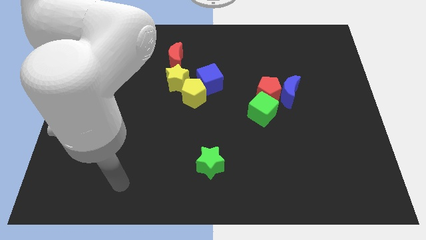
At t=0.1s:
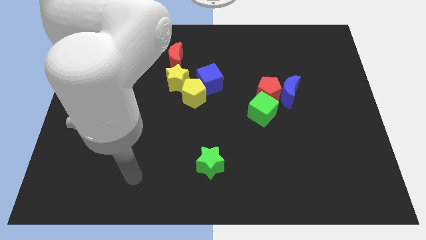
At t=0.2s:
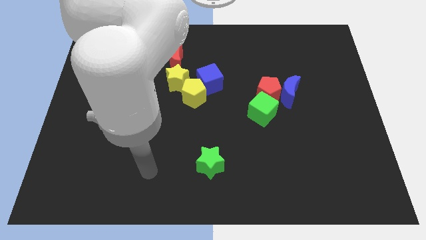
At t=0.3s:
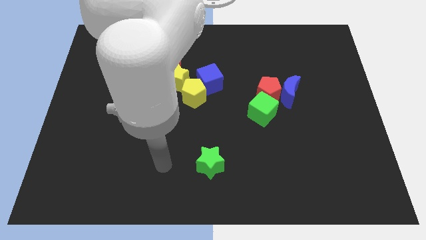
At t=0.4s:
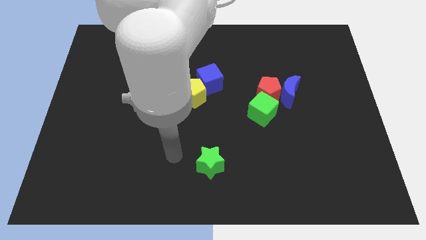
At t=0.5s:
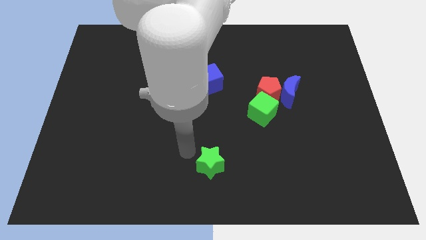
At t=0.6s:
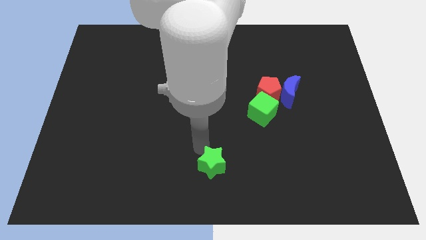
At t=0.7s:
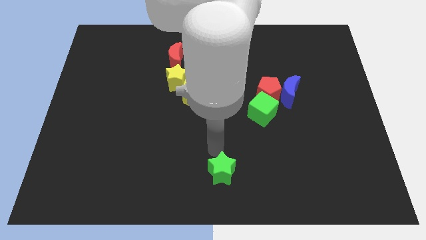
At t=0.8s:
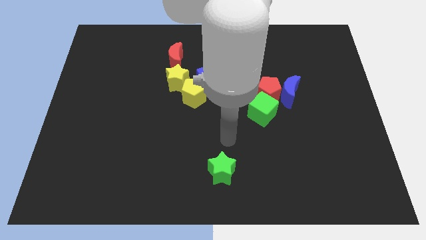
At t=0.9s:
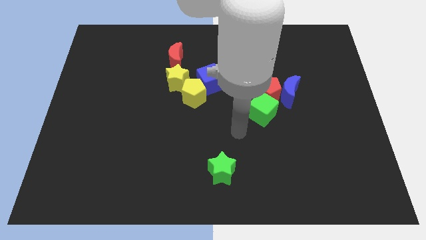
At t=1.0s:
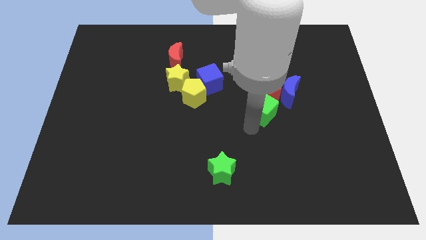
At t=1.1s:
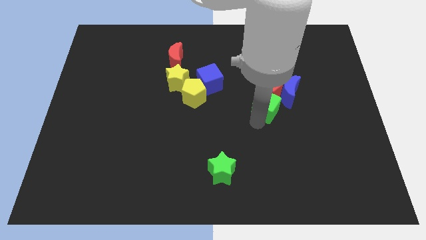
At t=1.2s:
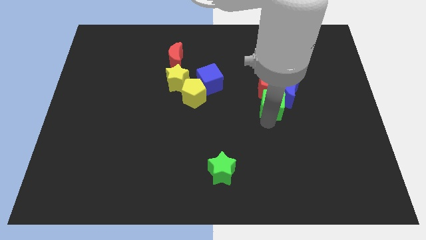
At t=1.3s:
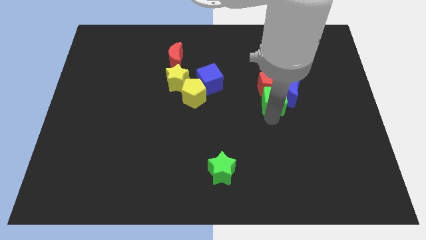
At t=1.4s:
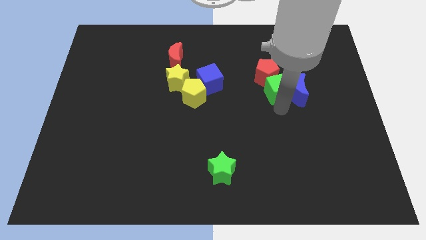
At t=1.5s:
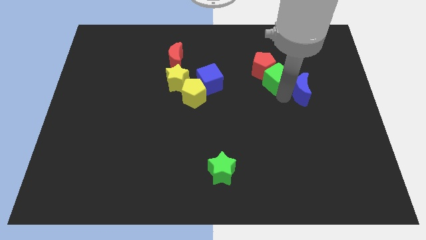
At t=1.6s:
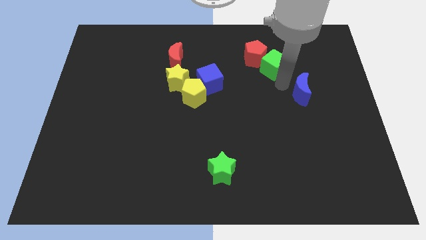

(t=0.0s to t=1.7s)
pull the red pentagon apart from the blue moon and green cube

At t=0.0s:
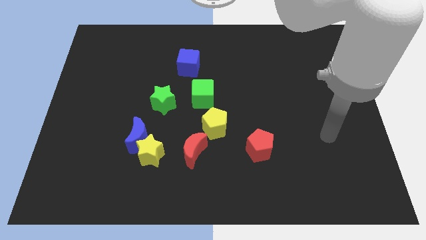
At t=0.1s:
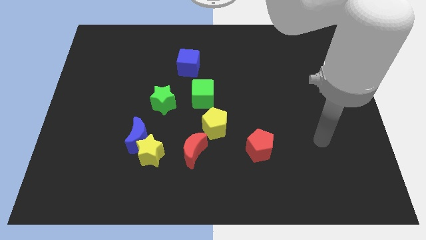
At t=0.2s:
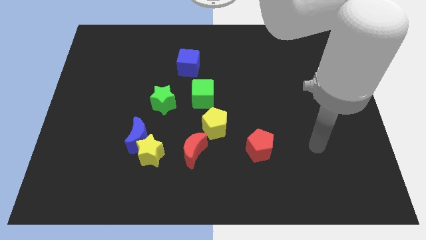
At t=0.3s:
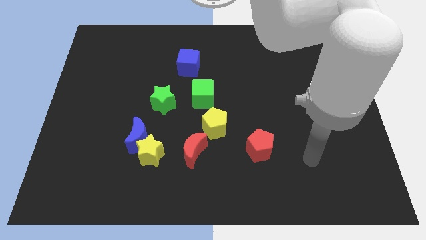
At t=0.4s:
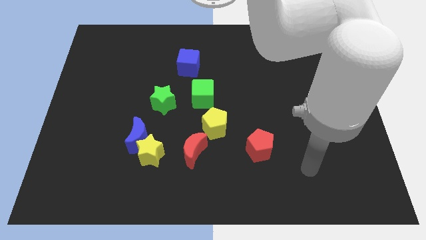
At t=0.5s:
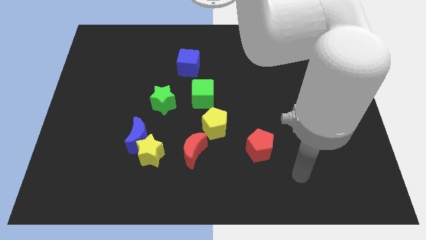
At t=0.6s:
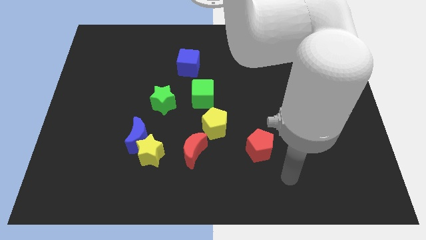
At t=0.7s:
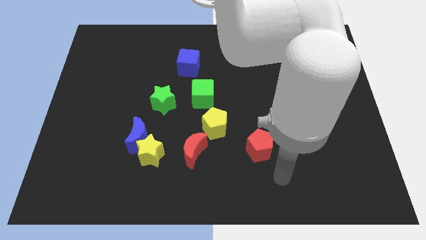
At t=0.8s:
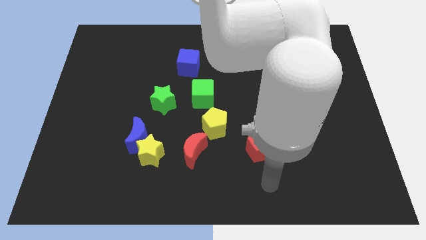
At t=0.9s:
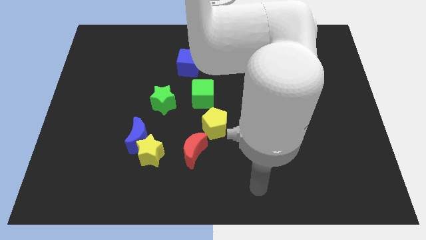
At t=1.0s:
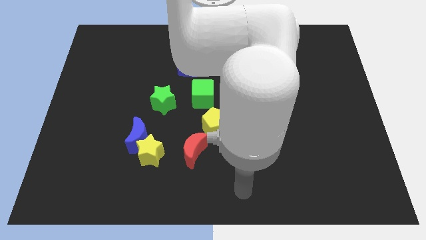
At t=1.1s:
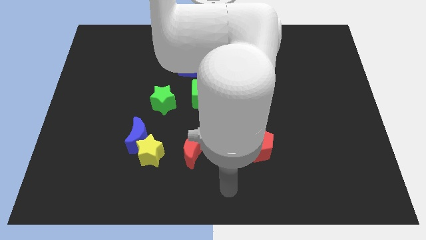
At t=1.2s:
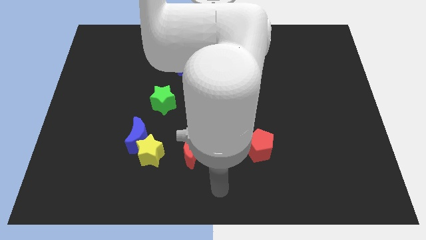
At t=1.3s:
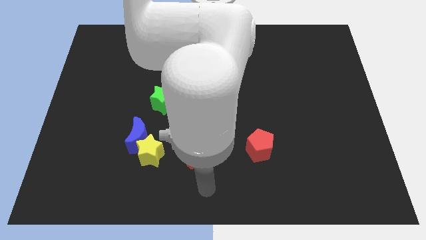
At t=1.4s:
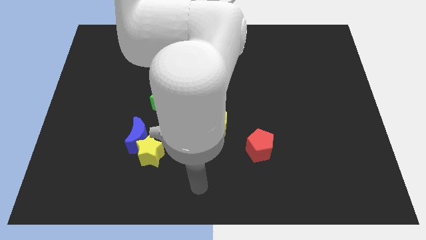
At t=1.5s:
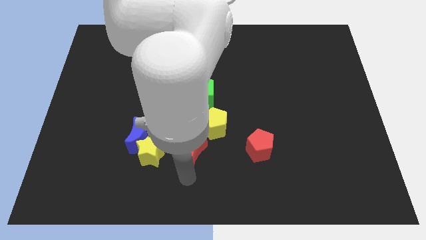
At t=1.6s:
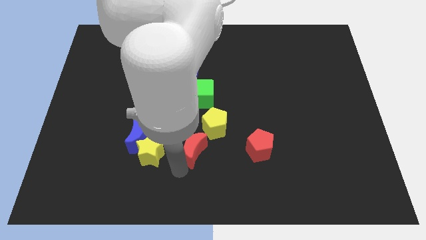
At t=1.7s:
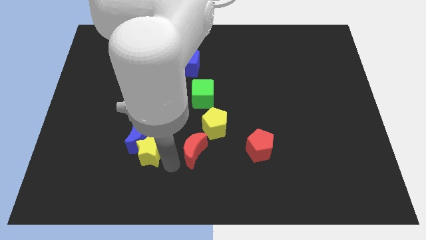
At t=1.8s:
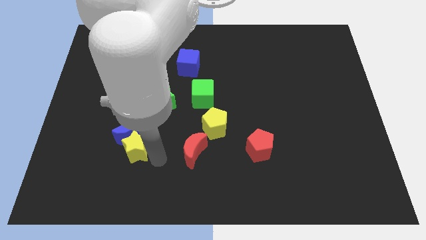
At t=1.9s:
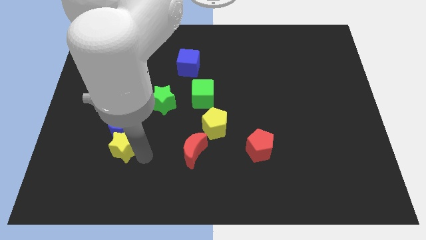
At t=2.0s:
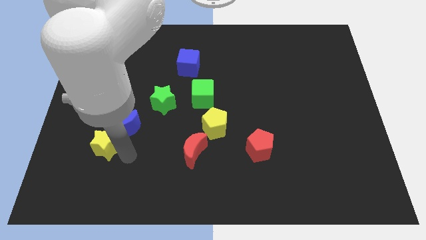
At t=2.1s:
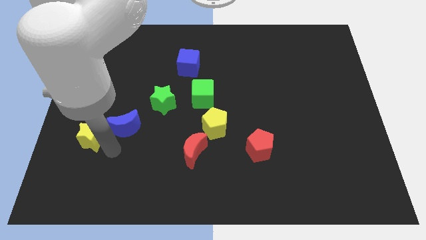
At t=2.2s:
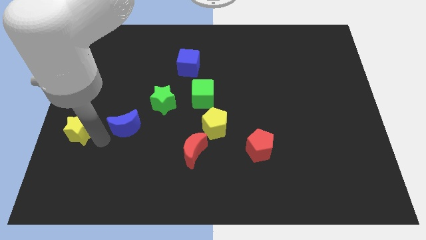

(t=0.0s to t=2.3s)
move the blue moon away from the yellow star

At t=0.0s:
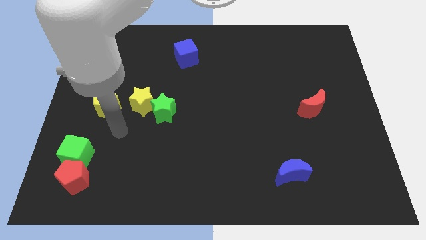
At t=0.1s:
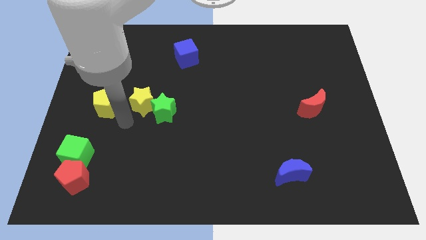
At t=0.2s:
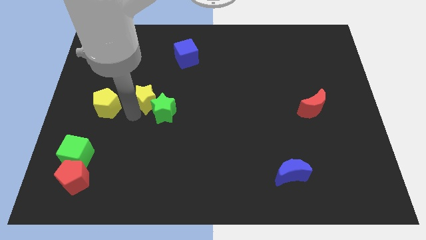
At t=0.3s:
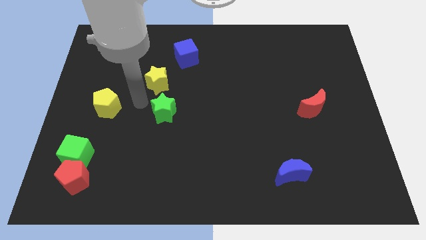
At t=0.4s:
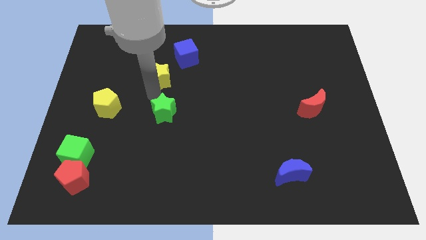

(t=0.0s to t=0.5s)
move the green star away from the yellow star

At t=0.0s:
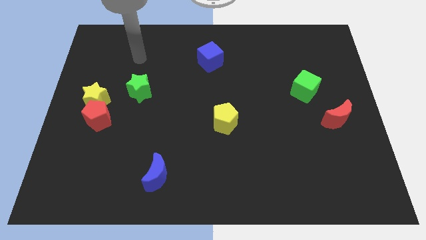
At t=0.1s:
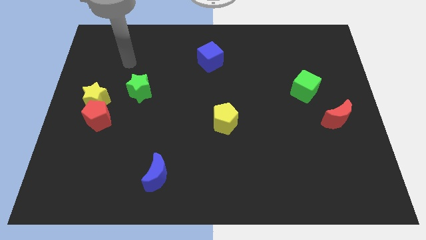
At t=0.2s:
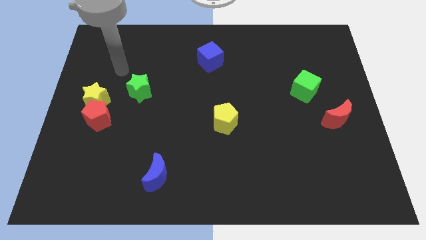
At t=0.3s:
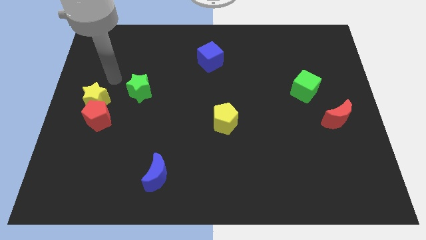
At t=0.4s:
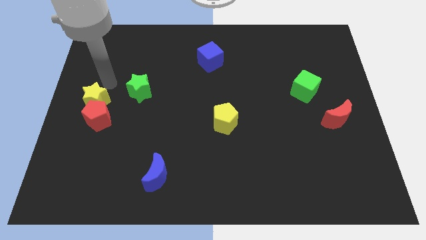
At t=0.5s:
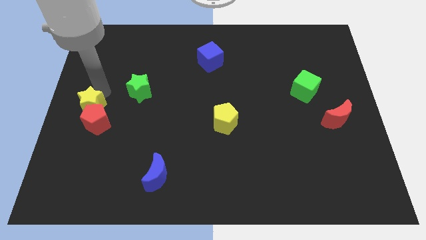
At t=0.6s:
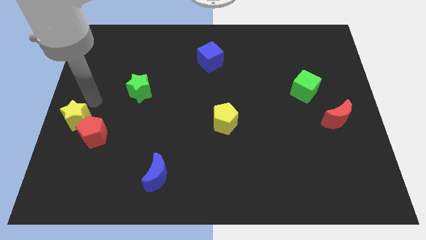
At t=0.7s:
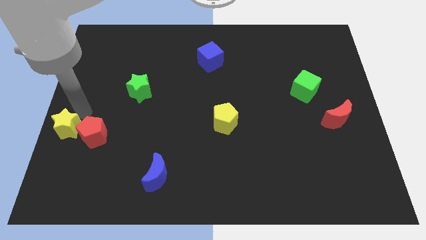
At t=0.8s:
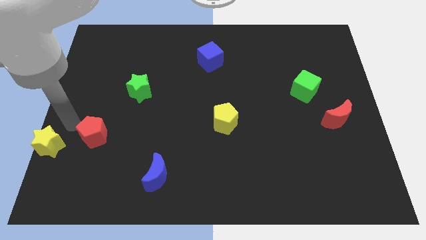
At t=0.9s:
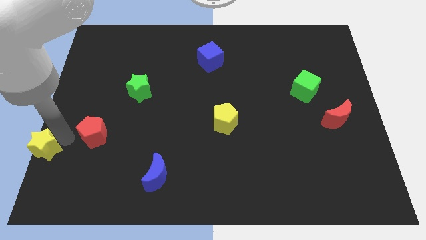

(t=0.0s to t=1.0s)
pull the red pentagon apart from the yellow star

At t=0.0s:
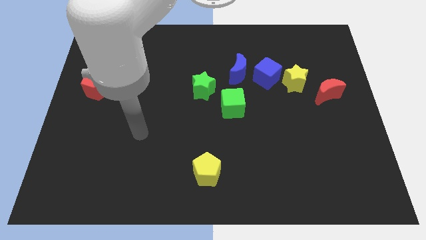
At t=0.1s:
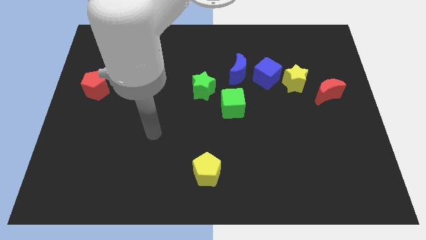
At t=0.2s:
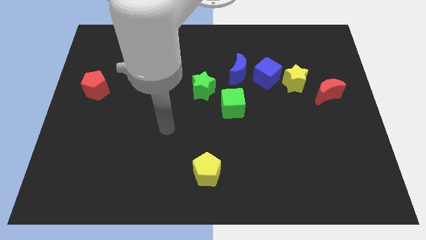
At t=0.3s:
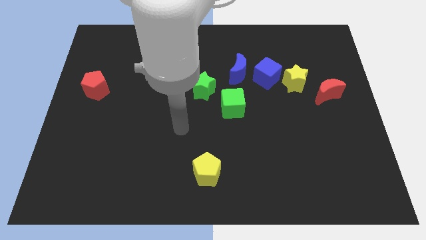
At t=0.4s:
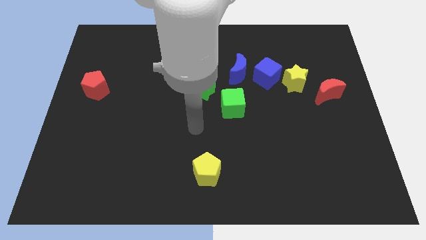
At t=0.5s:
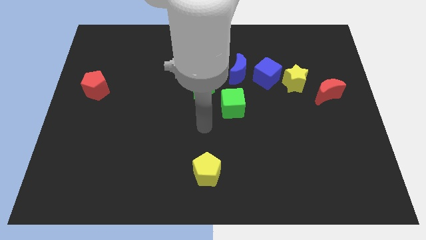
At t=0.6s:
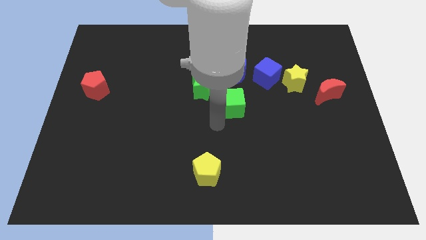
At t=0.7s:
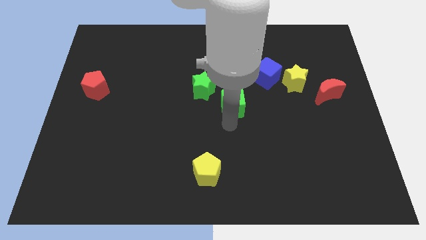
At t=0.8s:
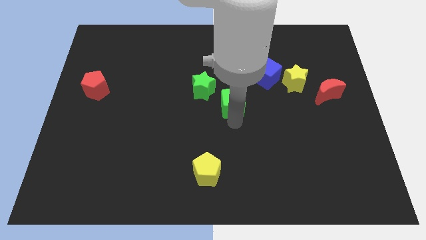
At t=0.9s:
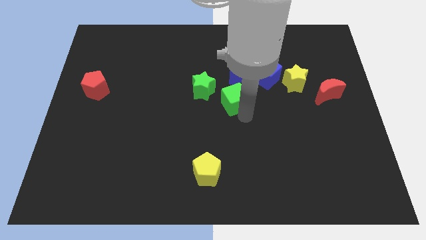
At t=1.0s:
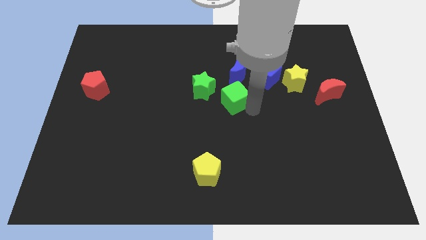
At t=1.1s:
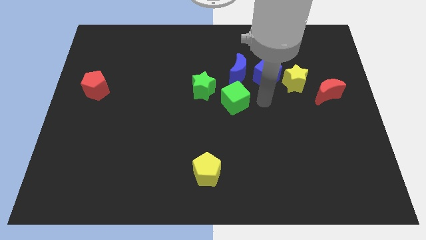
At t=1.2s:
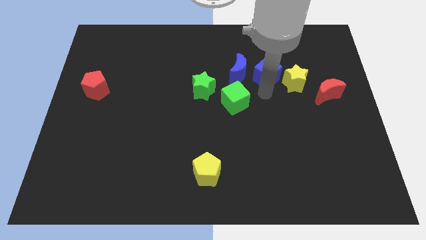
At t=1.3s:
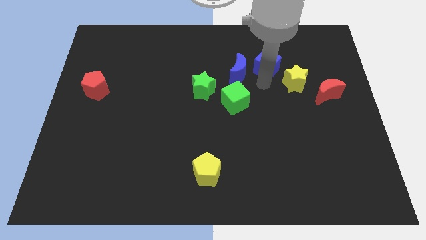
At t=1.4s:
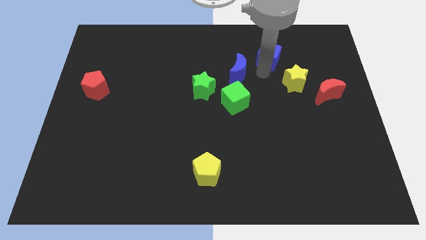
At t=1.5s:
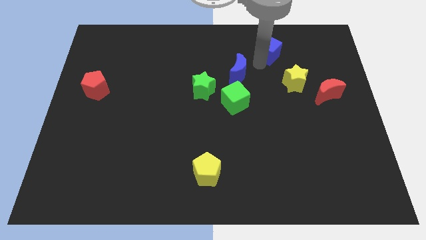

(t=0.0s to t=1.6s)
separate the blue moon from the blue cube

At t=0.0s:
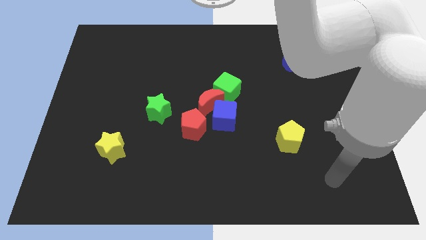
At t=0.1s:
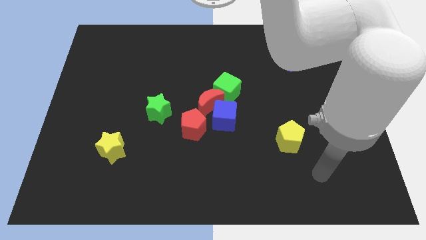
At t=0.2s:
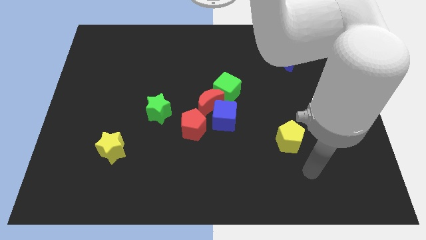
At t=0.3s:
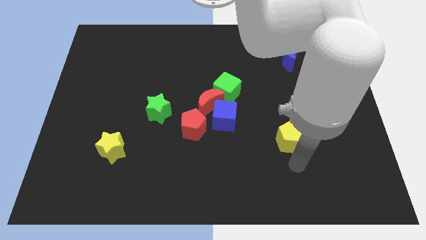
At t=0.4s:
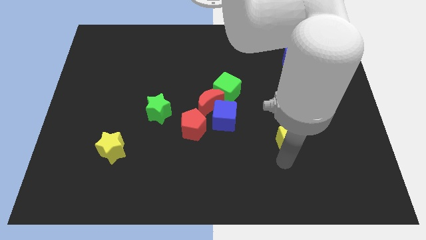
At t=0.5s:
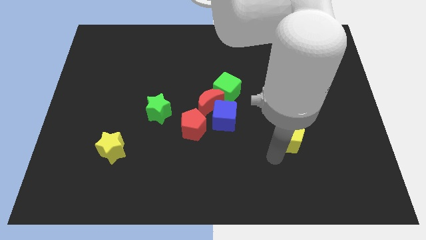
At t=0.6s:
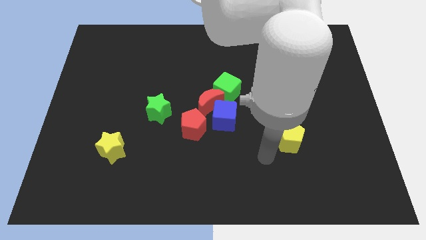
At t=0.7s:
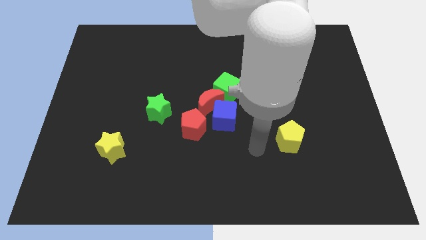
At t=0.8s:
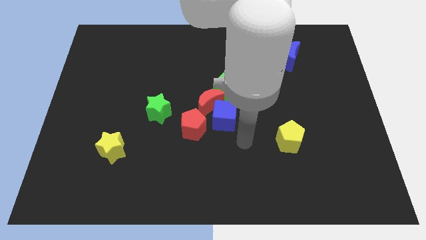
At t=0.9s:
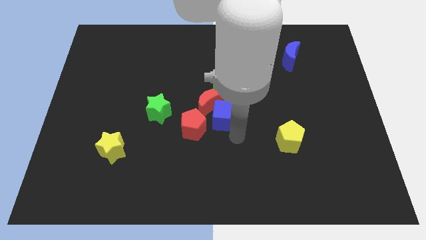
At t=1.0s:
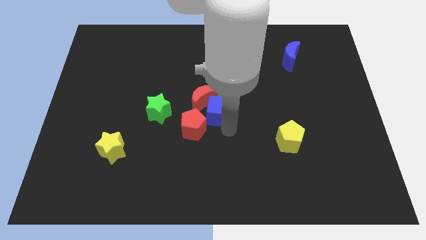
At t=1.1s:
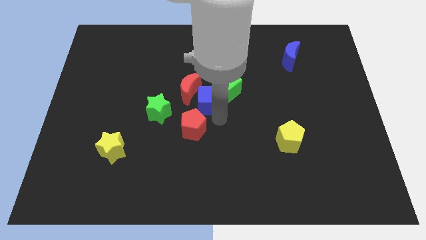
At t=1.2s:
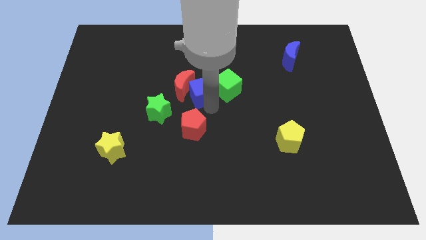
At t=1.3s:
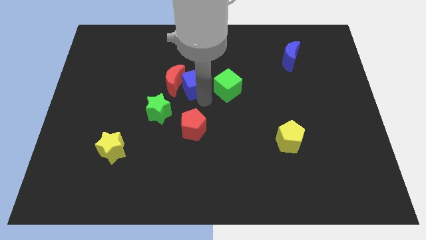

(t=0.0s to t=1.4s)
separate the red moon from the blue cube, green cube, and red pentagon

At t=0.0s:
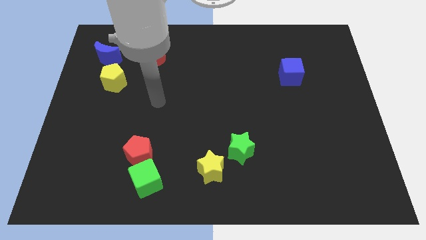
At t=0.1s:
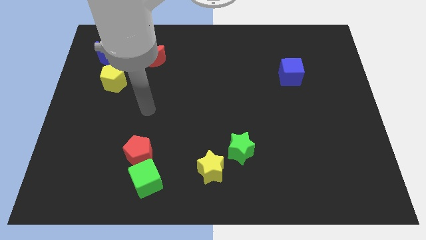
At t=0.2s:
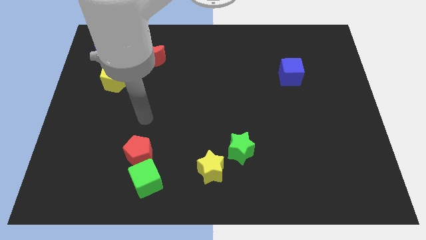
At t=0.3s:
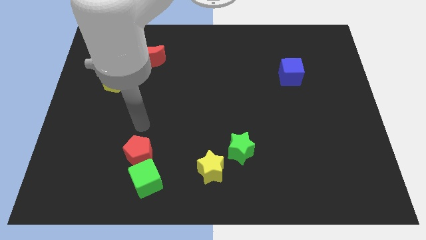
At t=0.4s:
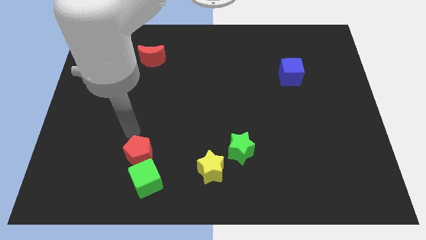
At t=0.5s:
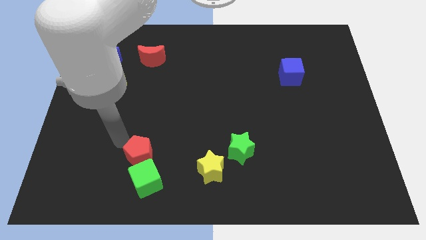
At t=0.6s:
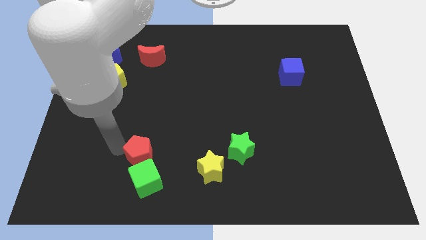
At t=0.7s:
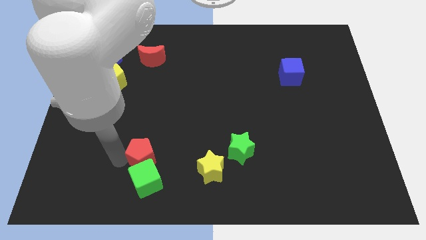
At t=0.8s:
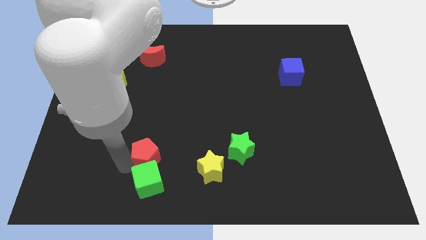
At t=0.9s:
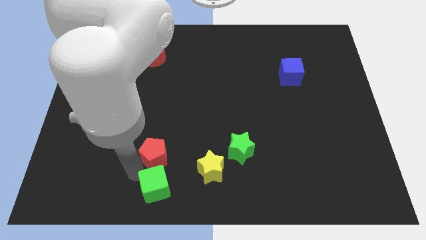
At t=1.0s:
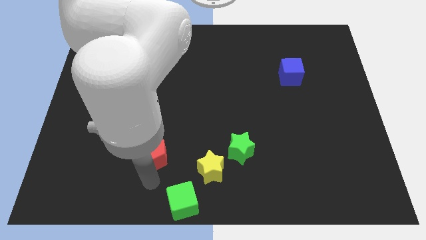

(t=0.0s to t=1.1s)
pull the red pentagon apart from the green cube
